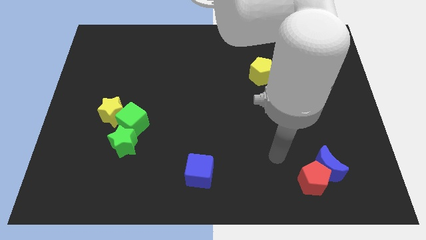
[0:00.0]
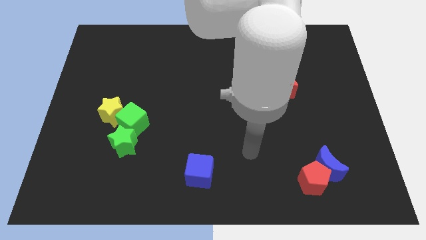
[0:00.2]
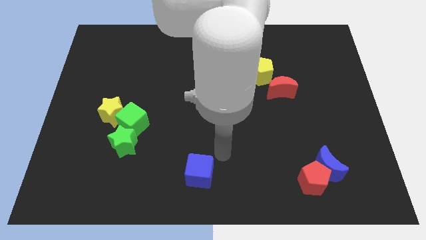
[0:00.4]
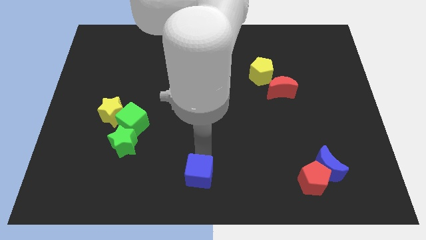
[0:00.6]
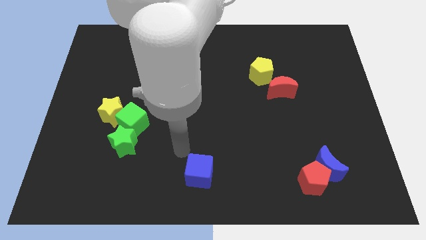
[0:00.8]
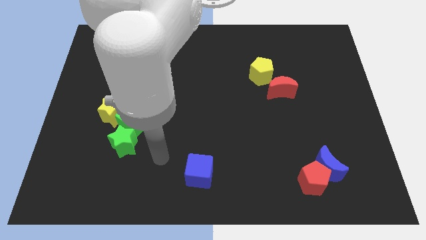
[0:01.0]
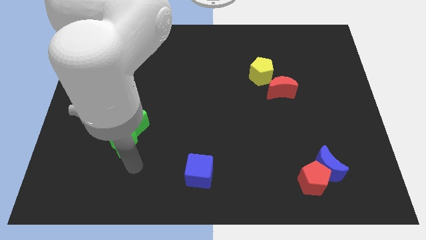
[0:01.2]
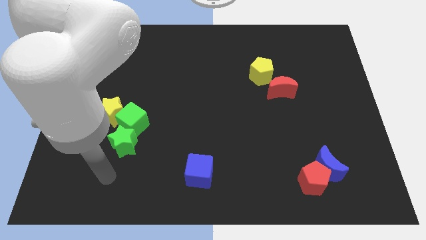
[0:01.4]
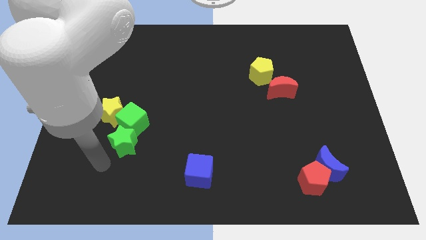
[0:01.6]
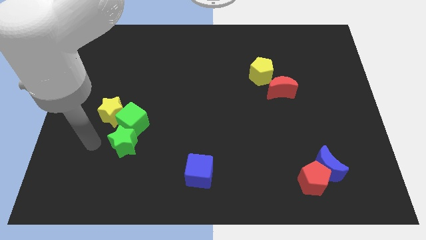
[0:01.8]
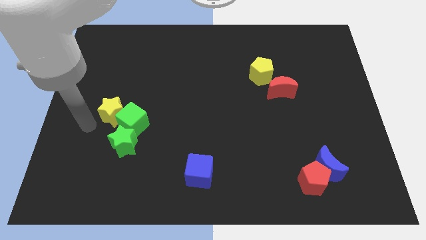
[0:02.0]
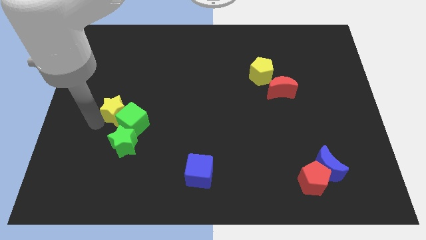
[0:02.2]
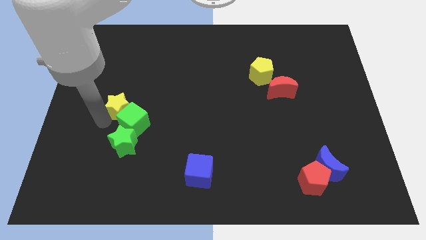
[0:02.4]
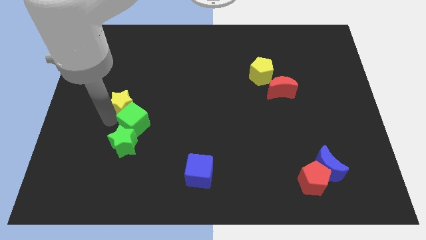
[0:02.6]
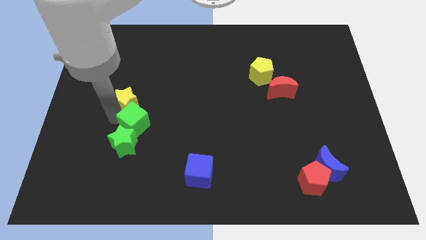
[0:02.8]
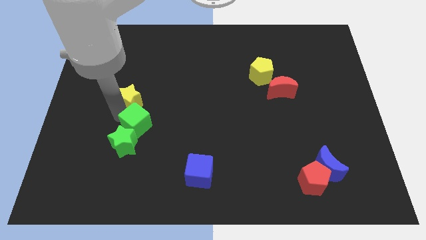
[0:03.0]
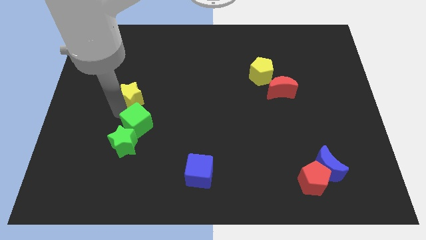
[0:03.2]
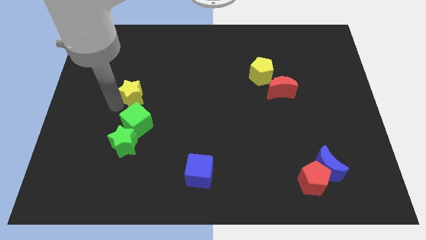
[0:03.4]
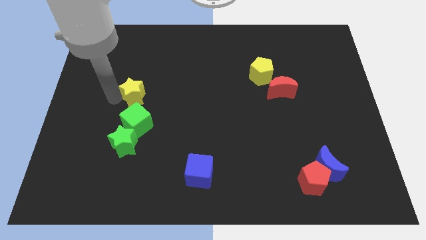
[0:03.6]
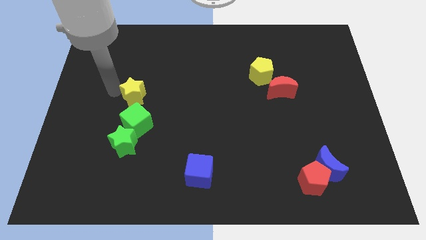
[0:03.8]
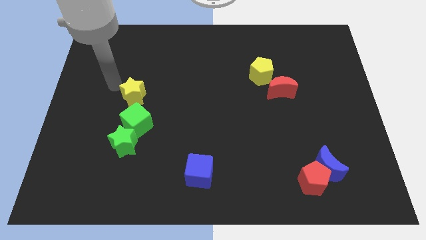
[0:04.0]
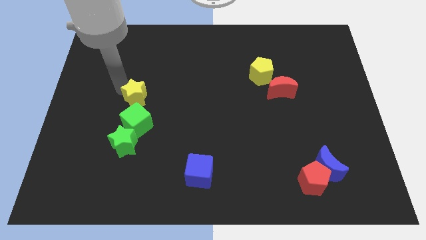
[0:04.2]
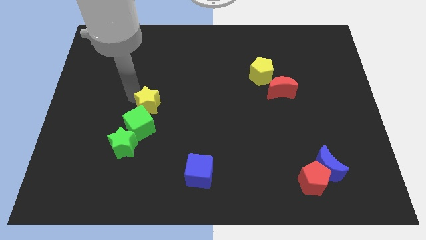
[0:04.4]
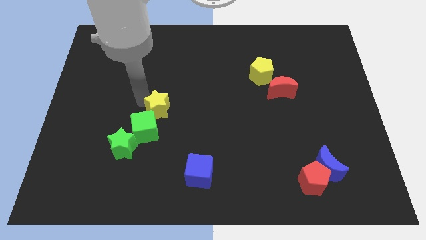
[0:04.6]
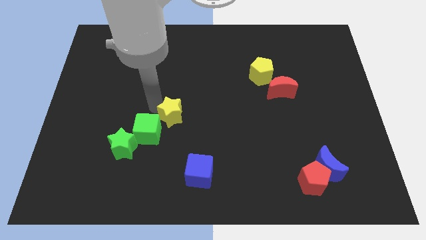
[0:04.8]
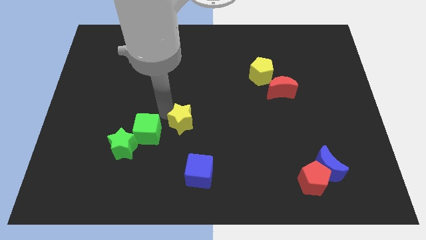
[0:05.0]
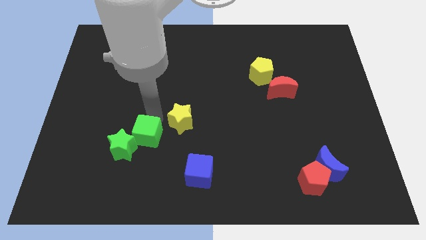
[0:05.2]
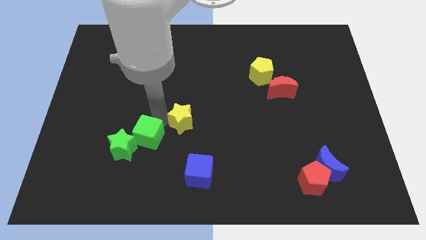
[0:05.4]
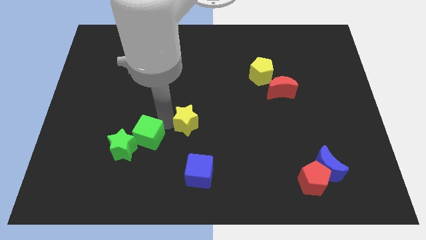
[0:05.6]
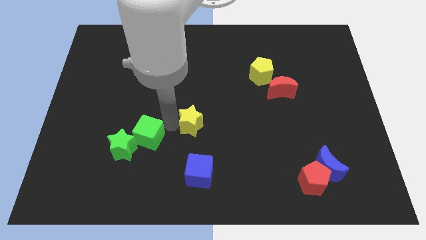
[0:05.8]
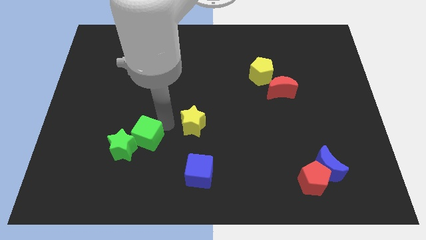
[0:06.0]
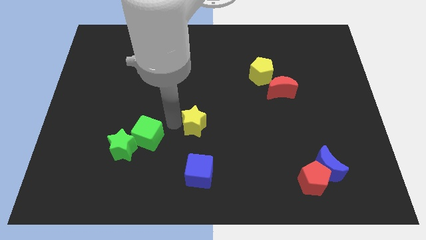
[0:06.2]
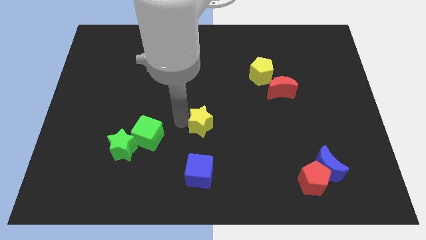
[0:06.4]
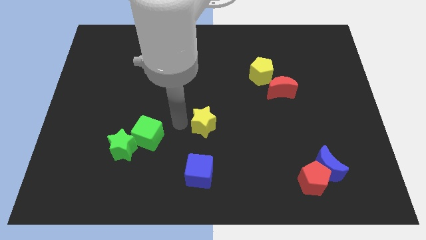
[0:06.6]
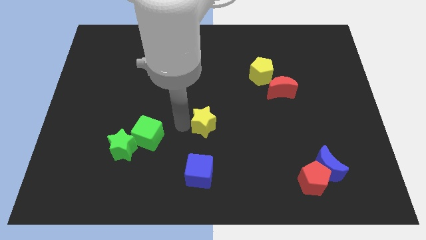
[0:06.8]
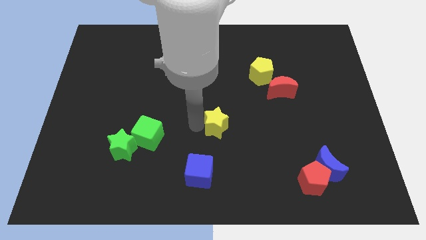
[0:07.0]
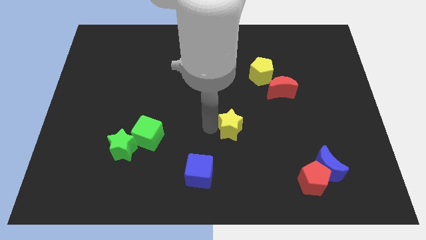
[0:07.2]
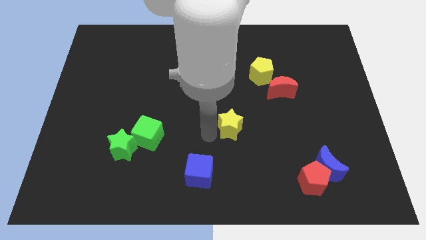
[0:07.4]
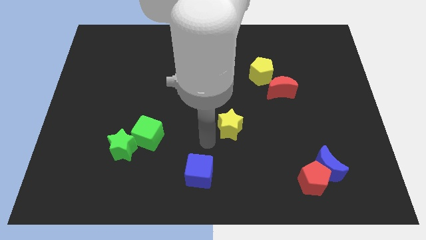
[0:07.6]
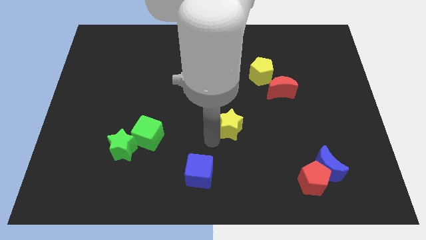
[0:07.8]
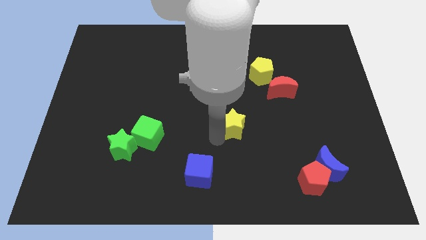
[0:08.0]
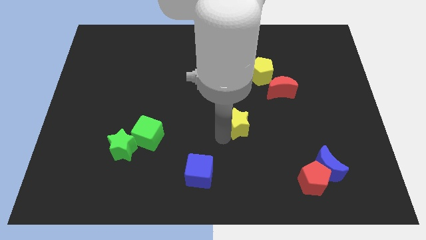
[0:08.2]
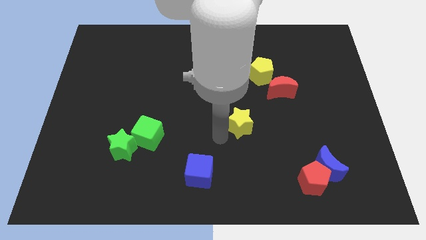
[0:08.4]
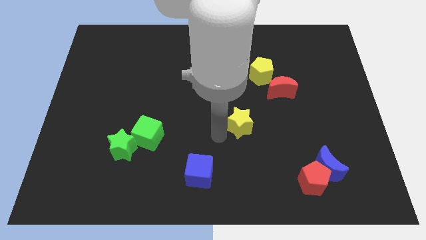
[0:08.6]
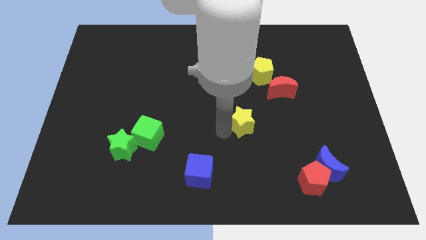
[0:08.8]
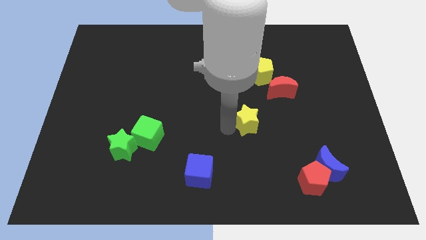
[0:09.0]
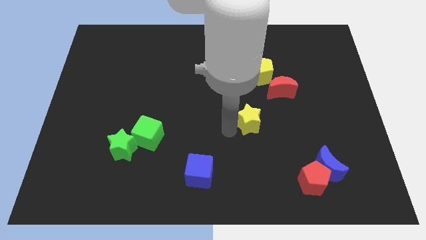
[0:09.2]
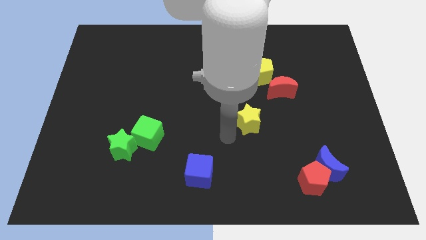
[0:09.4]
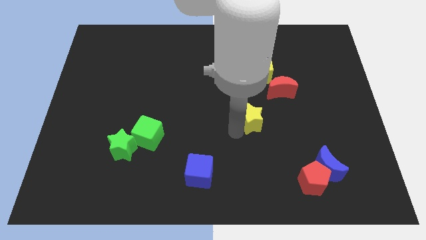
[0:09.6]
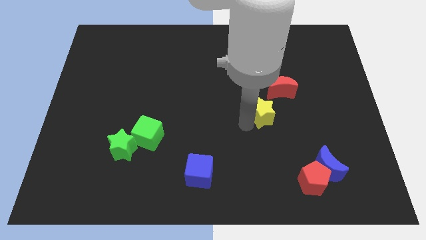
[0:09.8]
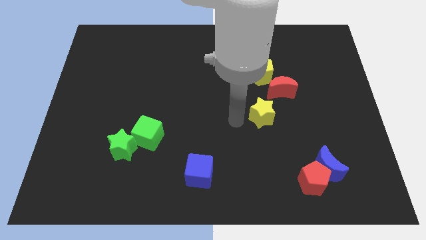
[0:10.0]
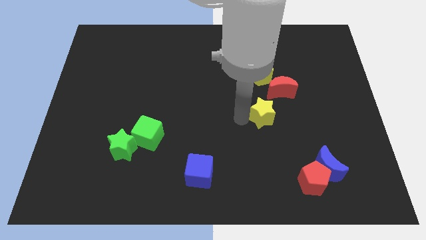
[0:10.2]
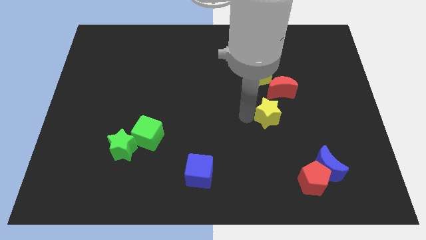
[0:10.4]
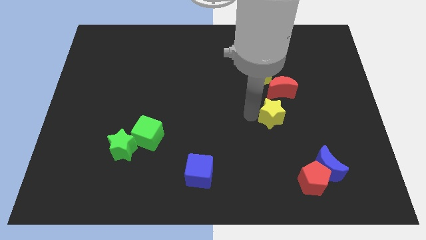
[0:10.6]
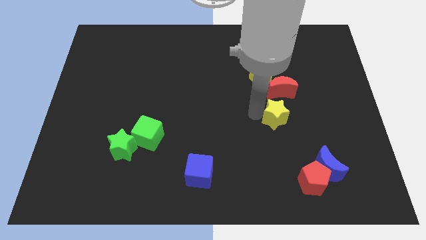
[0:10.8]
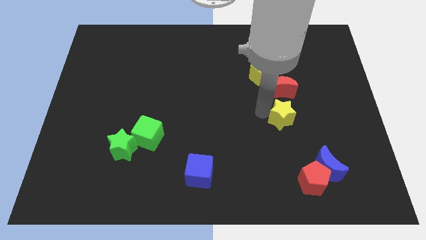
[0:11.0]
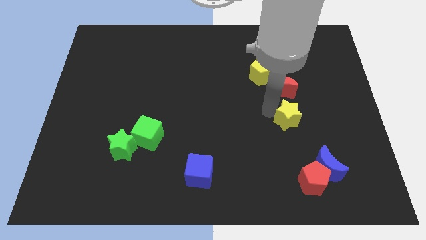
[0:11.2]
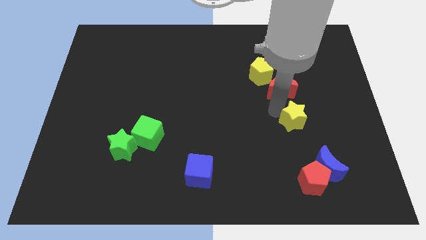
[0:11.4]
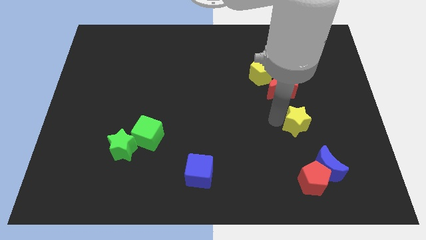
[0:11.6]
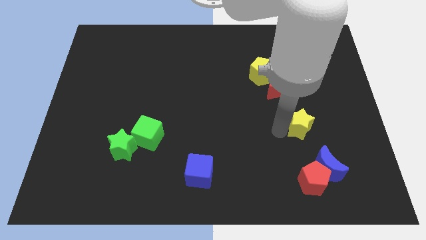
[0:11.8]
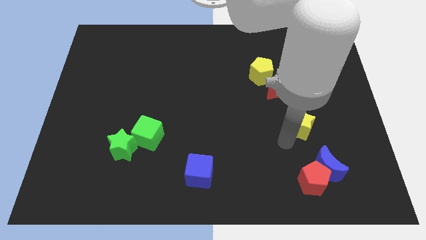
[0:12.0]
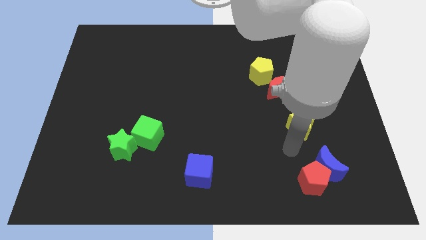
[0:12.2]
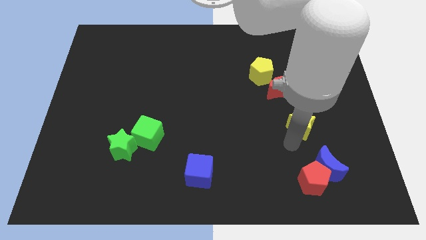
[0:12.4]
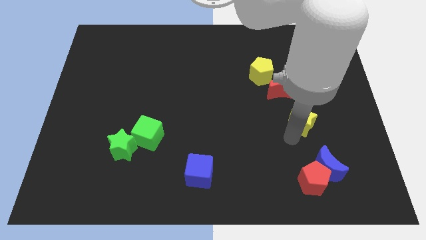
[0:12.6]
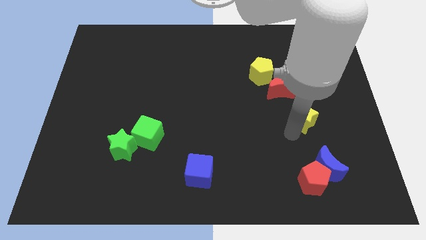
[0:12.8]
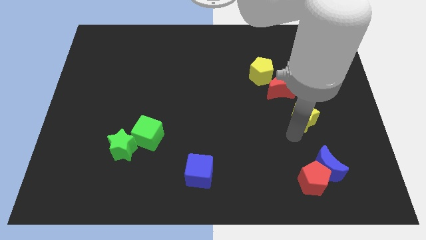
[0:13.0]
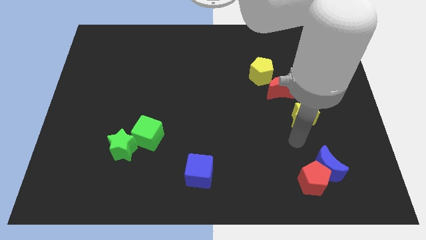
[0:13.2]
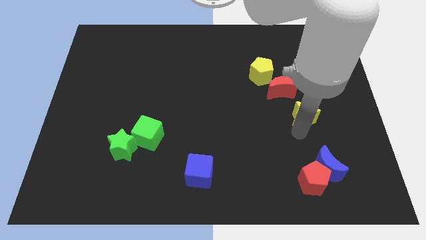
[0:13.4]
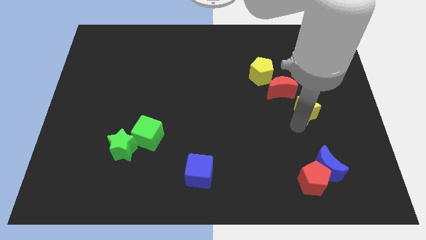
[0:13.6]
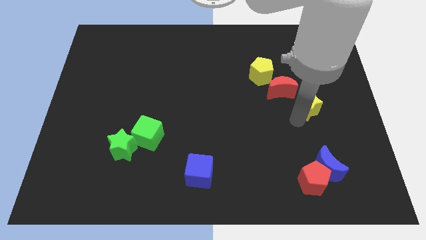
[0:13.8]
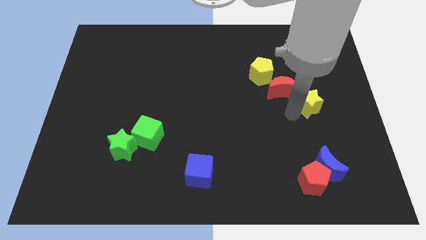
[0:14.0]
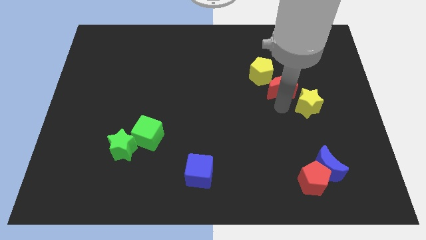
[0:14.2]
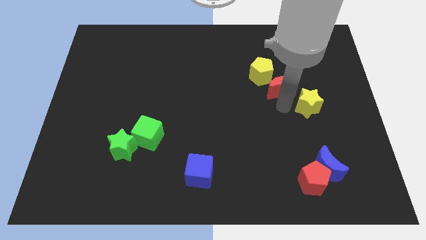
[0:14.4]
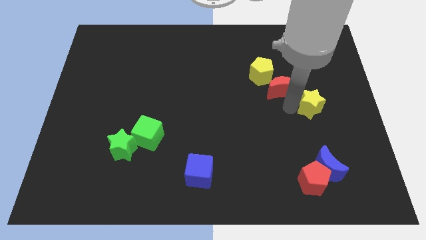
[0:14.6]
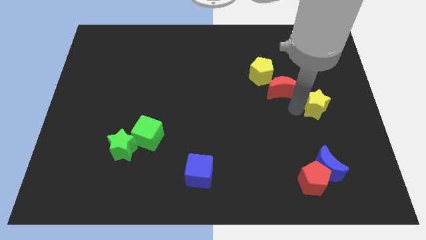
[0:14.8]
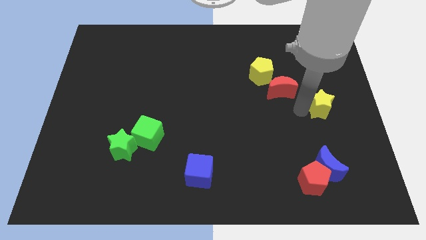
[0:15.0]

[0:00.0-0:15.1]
move the yellow star to the right side of the board
